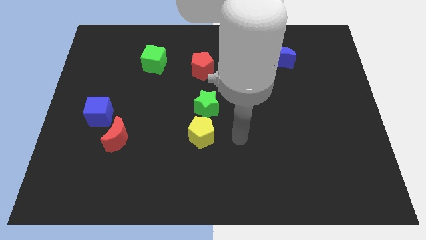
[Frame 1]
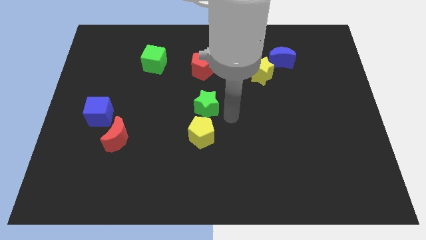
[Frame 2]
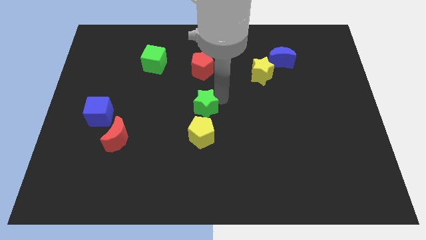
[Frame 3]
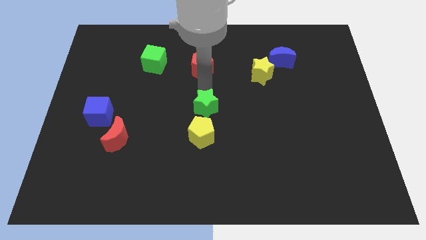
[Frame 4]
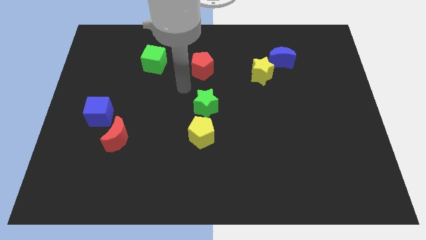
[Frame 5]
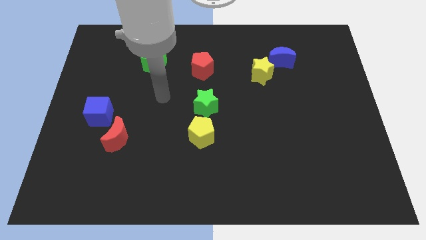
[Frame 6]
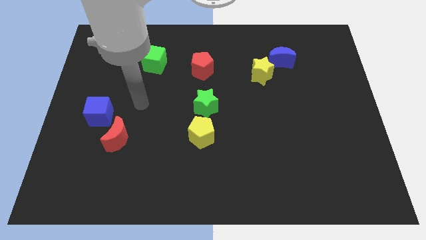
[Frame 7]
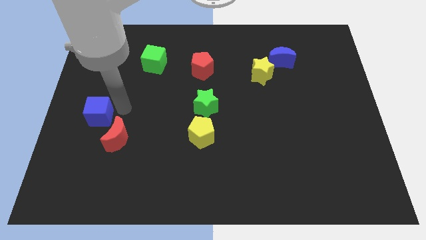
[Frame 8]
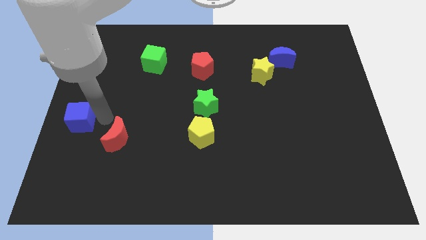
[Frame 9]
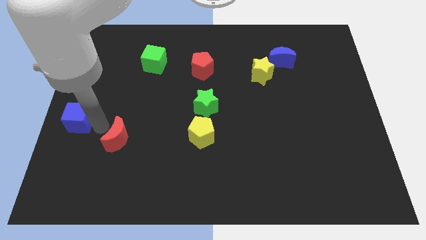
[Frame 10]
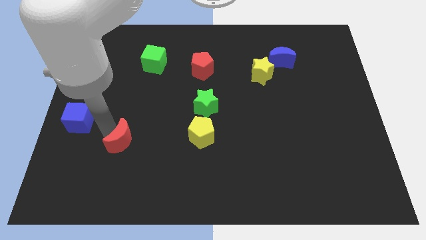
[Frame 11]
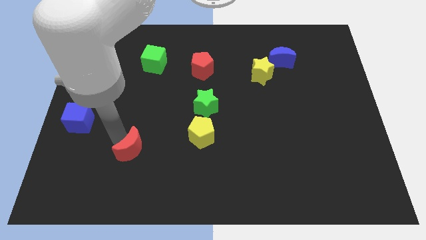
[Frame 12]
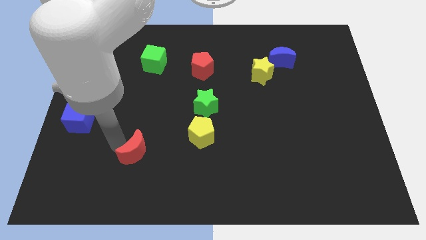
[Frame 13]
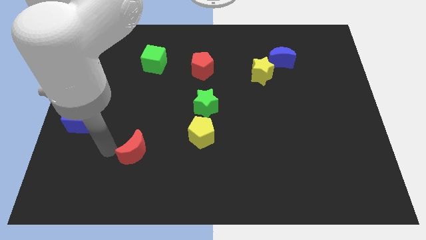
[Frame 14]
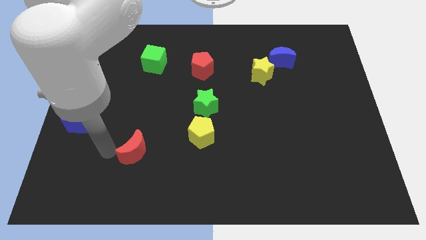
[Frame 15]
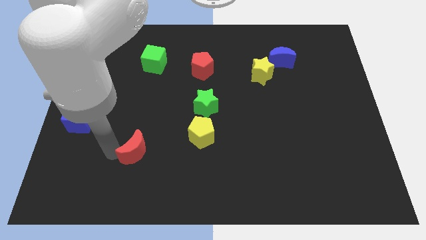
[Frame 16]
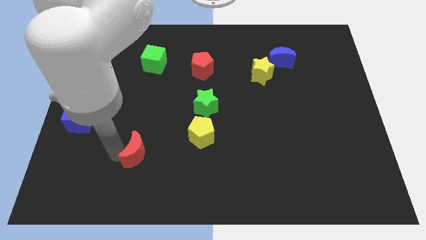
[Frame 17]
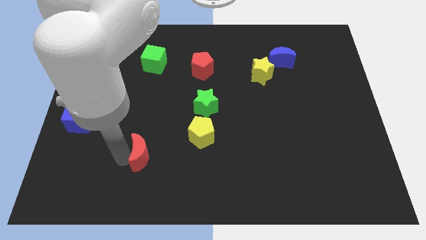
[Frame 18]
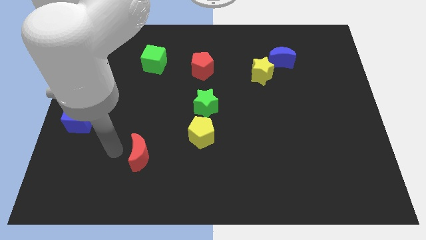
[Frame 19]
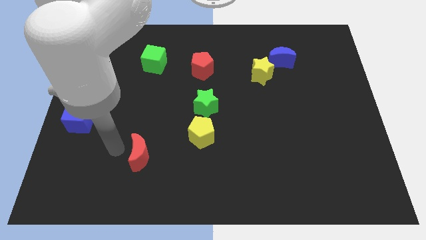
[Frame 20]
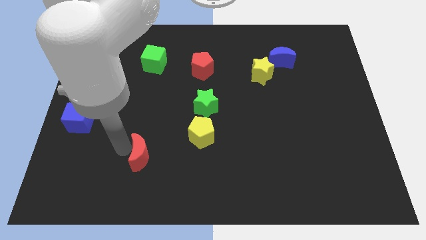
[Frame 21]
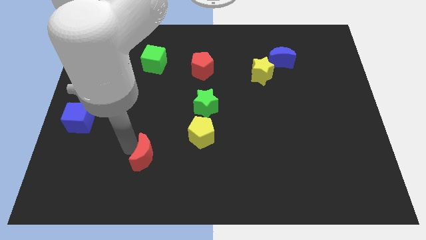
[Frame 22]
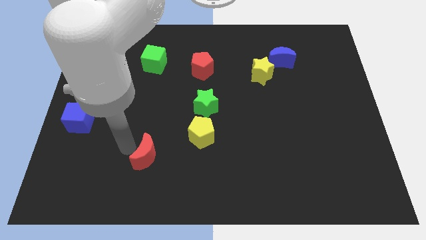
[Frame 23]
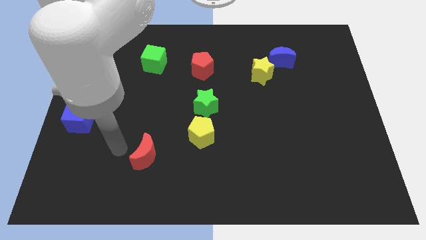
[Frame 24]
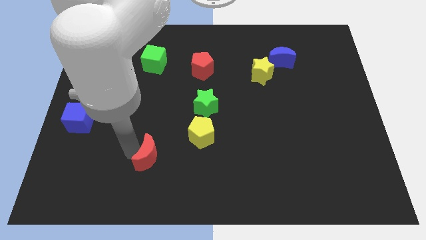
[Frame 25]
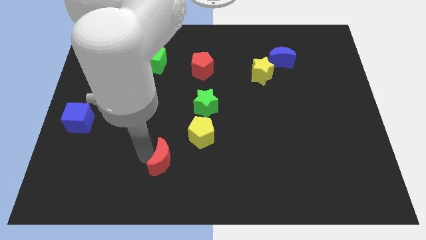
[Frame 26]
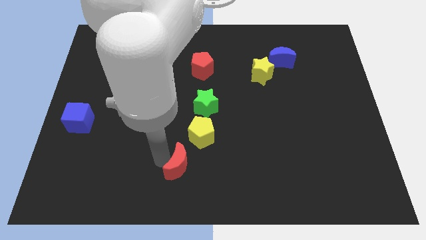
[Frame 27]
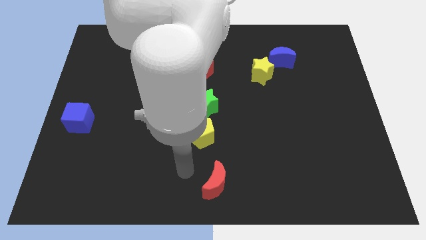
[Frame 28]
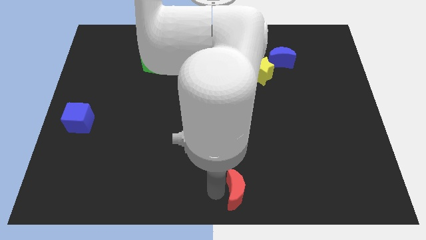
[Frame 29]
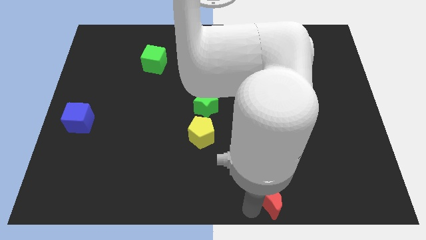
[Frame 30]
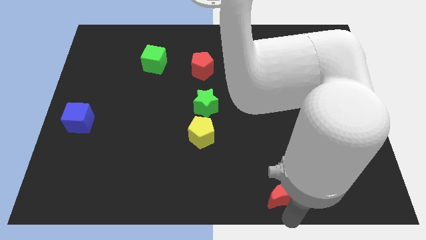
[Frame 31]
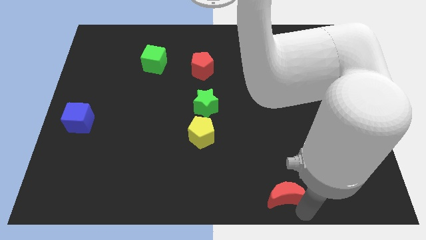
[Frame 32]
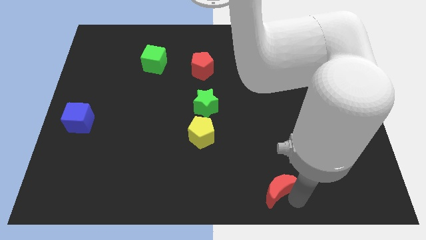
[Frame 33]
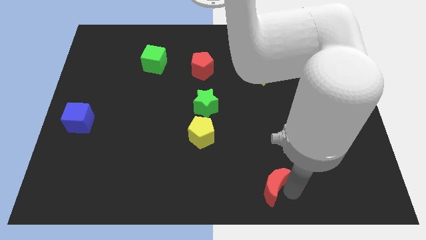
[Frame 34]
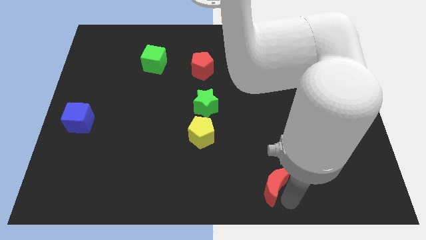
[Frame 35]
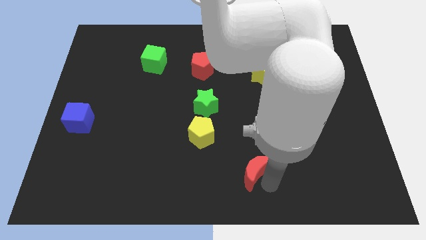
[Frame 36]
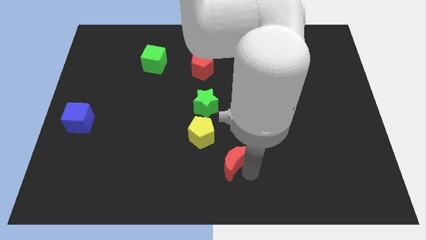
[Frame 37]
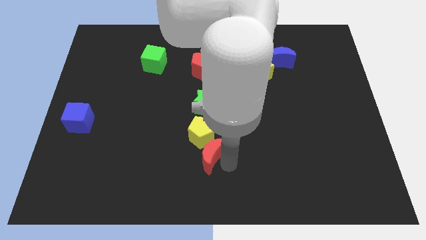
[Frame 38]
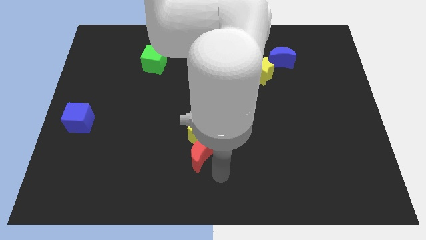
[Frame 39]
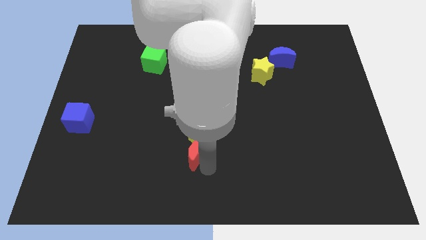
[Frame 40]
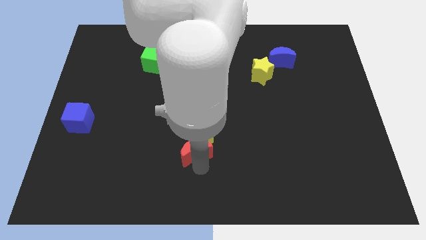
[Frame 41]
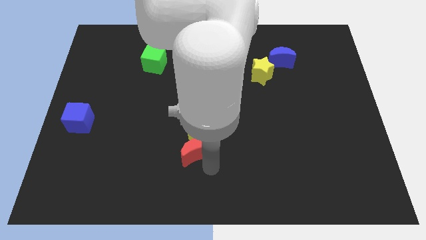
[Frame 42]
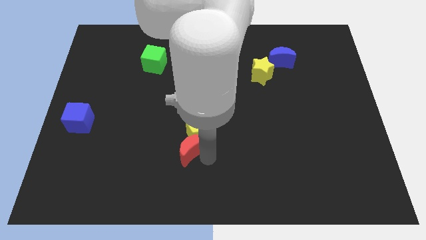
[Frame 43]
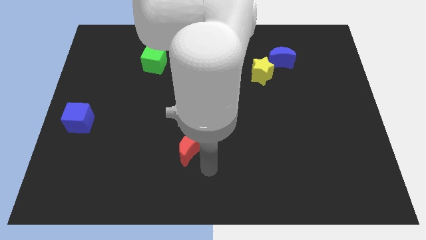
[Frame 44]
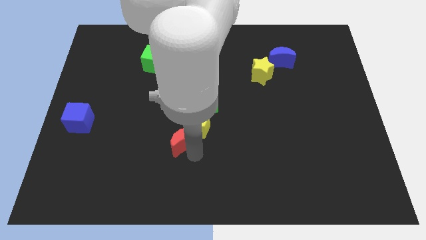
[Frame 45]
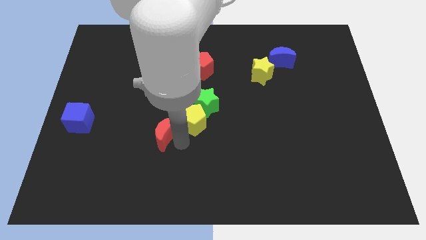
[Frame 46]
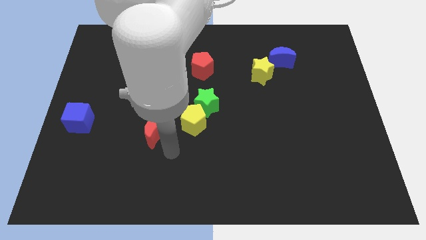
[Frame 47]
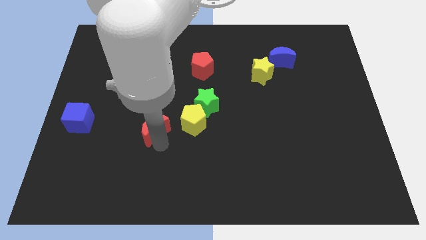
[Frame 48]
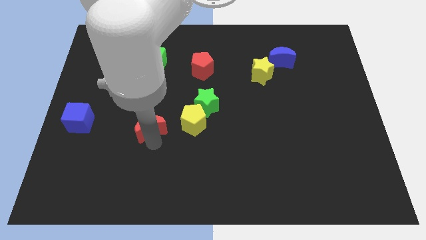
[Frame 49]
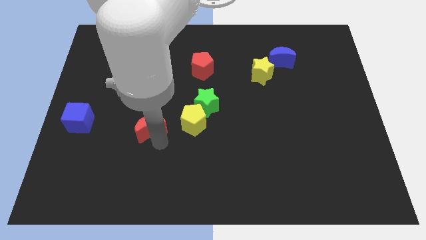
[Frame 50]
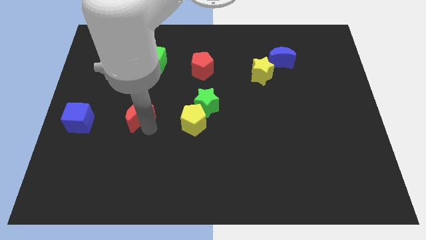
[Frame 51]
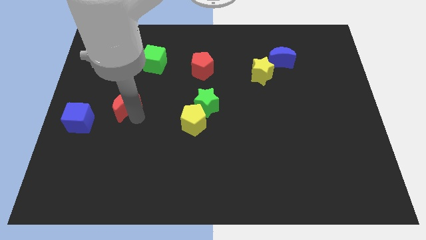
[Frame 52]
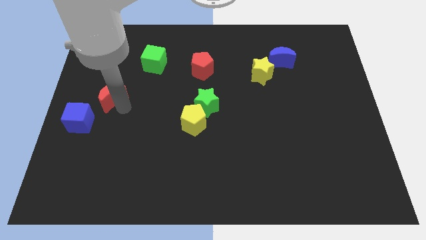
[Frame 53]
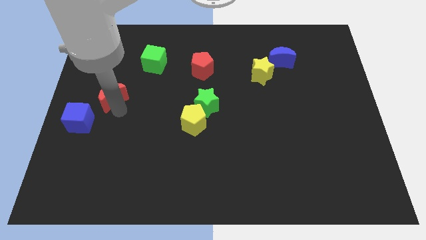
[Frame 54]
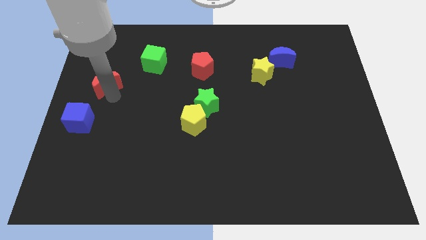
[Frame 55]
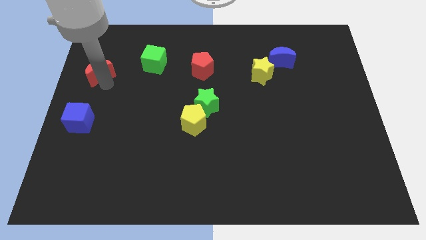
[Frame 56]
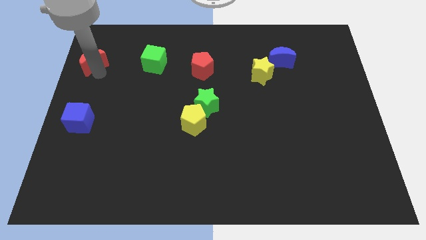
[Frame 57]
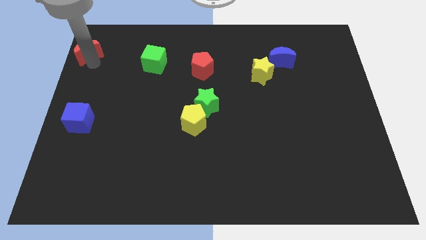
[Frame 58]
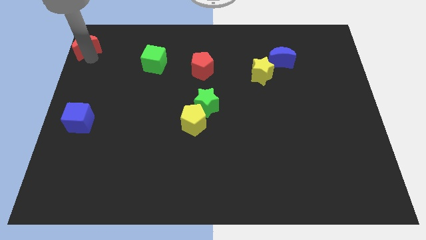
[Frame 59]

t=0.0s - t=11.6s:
put the red moon to the top left of the board
